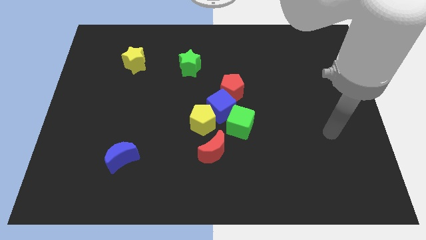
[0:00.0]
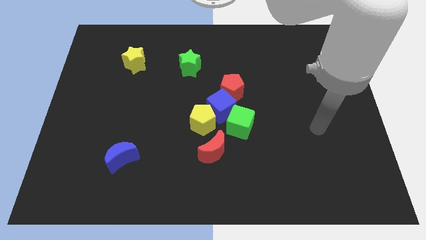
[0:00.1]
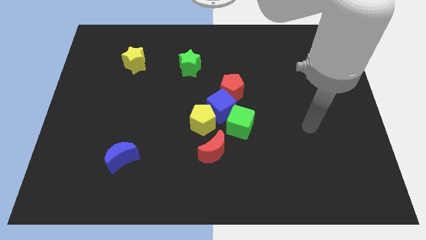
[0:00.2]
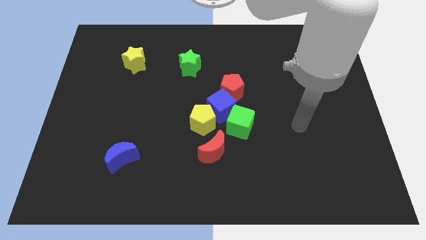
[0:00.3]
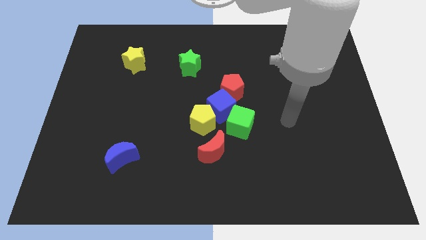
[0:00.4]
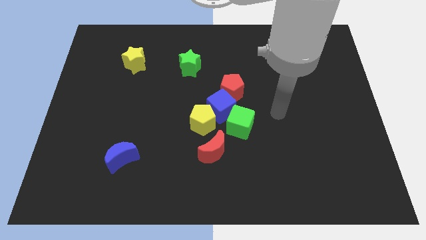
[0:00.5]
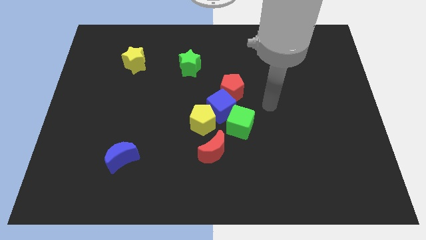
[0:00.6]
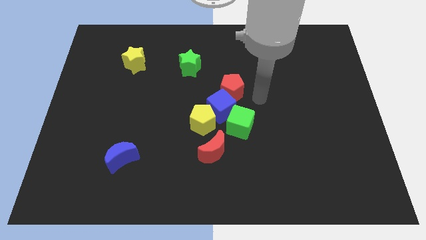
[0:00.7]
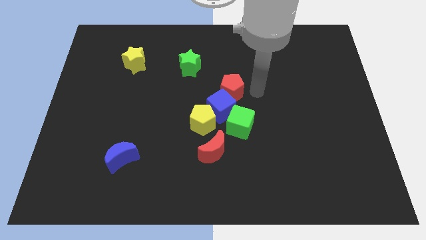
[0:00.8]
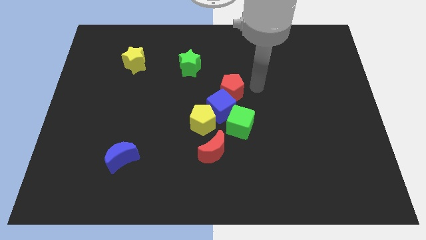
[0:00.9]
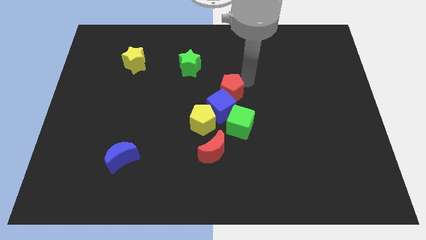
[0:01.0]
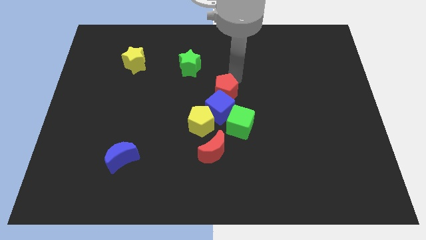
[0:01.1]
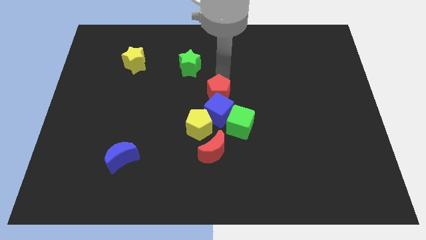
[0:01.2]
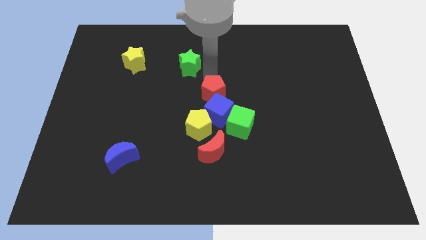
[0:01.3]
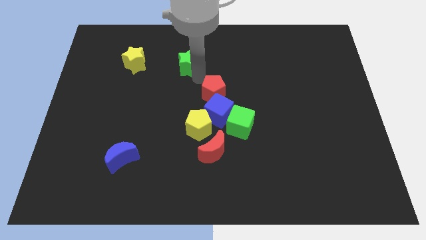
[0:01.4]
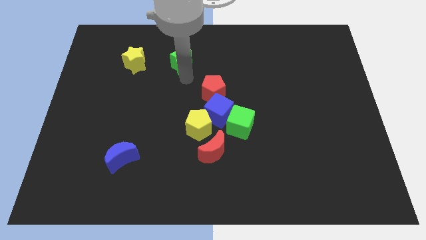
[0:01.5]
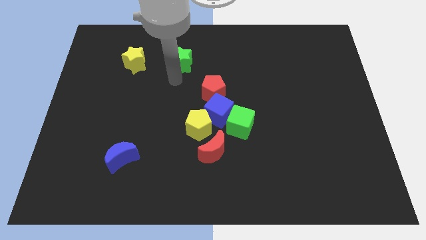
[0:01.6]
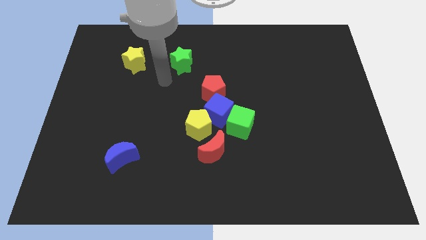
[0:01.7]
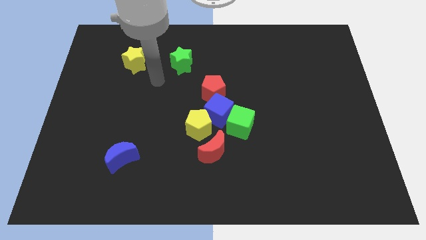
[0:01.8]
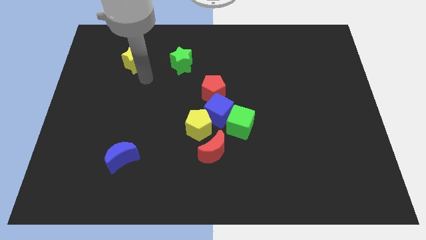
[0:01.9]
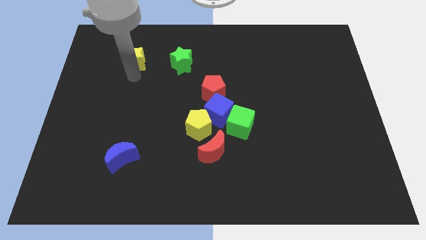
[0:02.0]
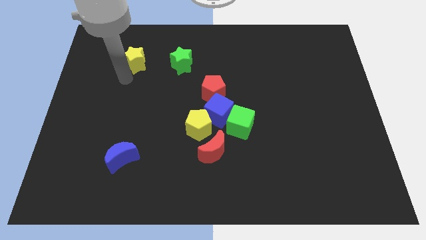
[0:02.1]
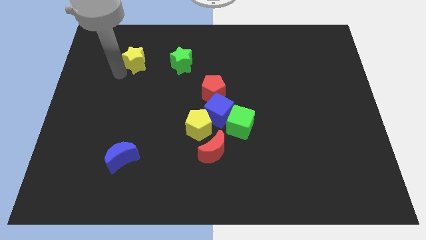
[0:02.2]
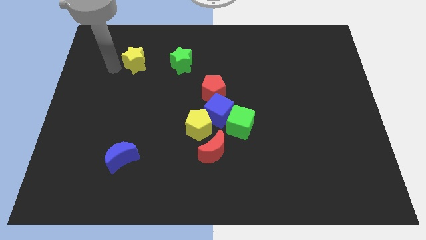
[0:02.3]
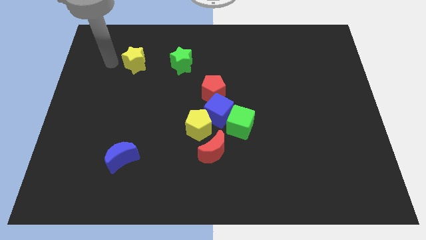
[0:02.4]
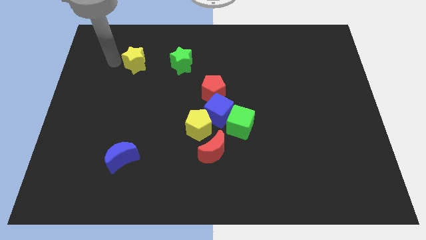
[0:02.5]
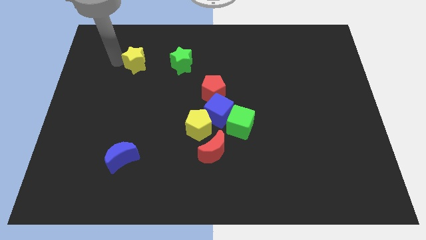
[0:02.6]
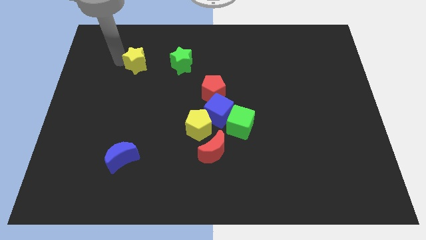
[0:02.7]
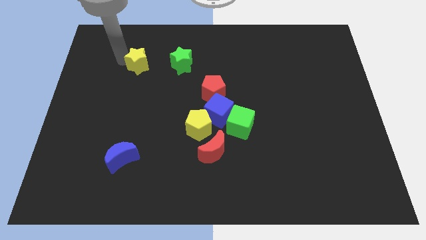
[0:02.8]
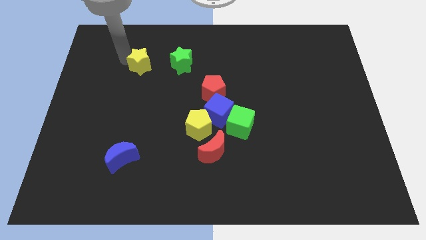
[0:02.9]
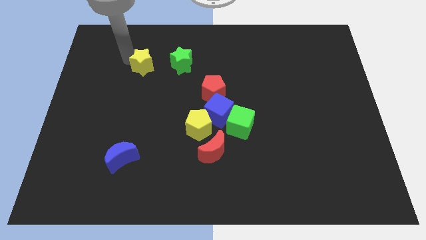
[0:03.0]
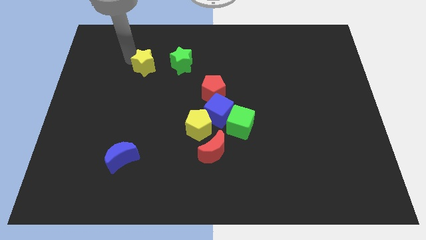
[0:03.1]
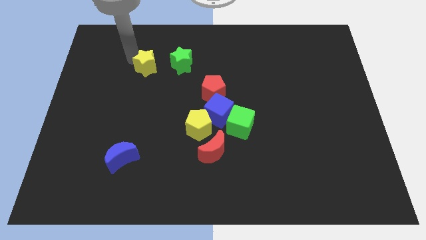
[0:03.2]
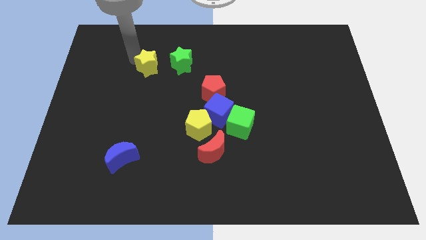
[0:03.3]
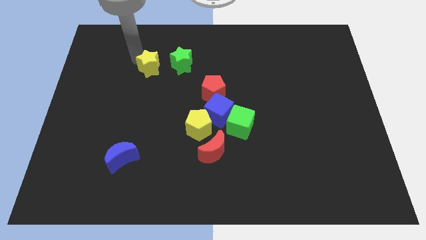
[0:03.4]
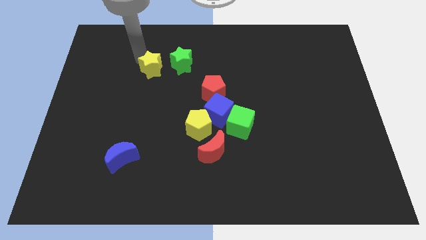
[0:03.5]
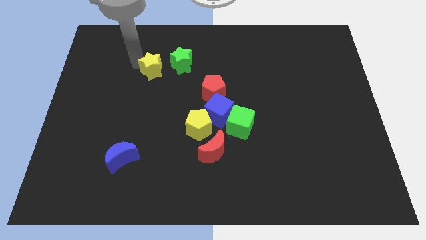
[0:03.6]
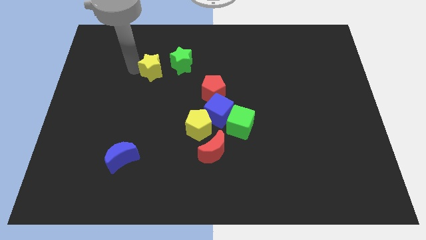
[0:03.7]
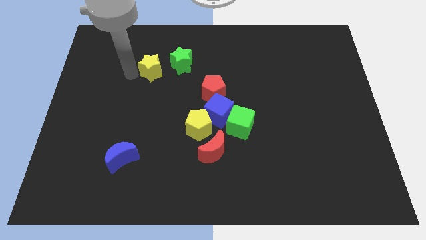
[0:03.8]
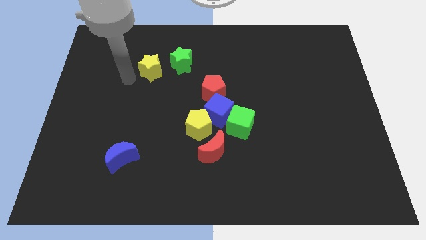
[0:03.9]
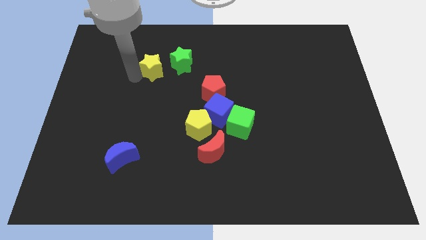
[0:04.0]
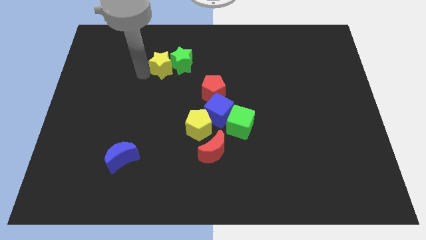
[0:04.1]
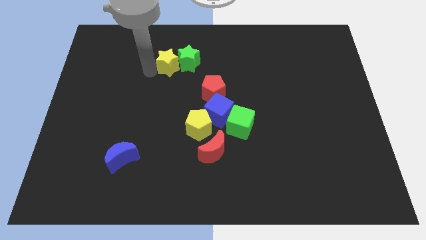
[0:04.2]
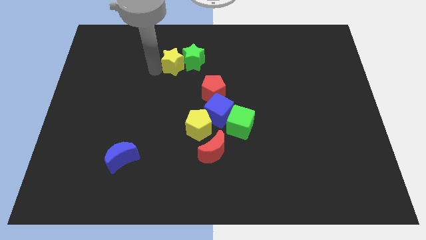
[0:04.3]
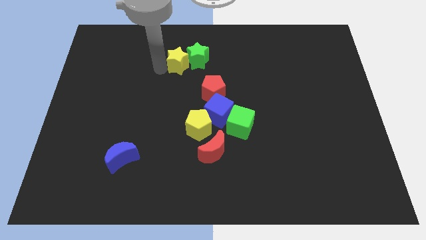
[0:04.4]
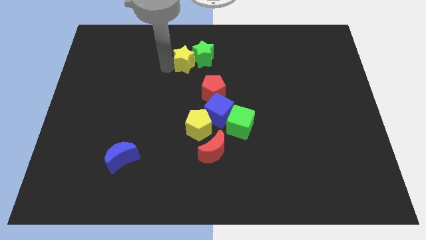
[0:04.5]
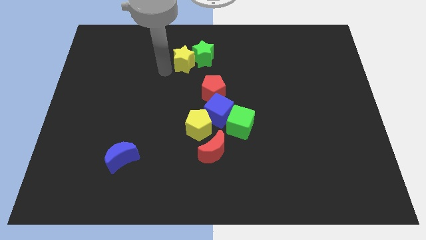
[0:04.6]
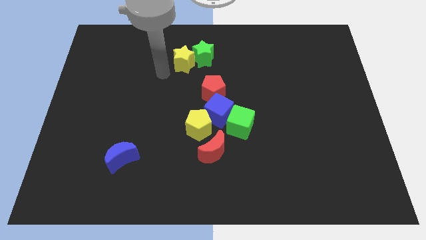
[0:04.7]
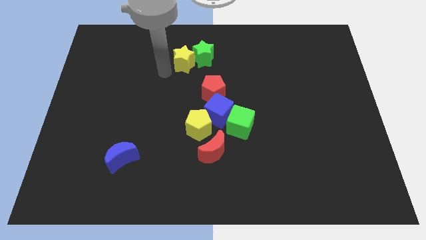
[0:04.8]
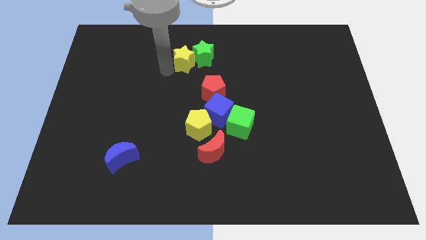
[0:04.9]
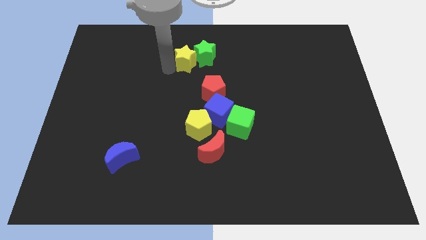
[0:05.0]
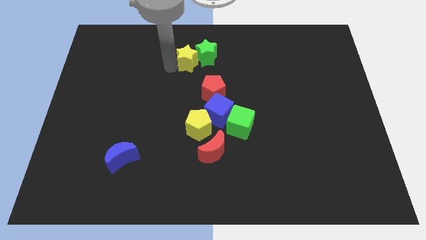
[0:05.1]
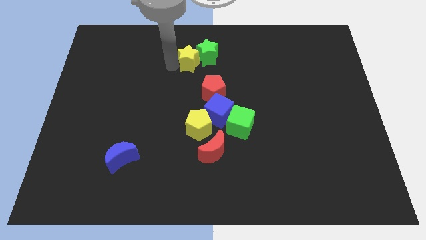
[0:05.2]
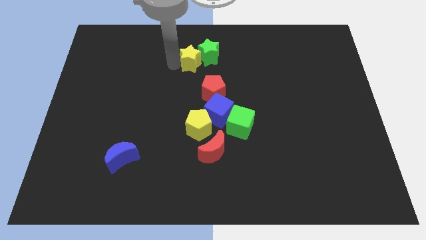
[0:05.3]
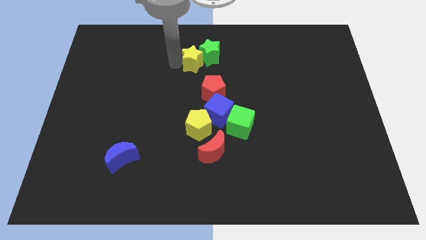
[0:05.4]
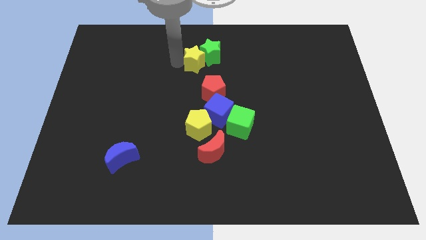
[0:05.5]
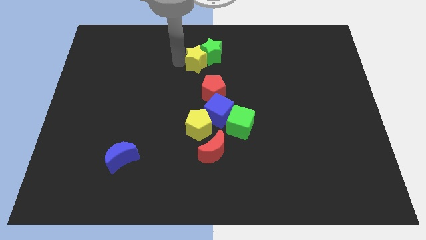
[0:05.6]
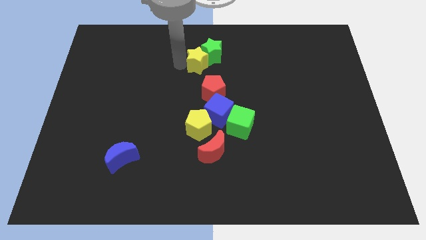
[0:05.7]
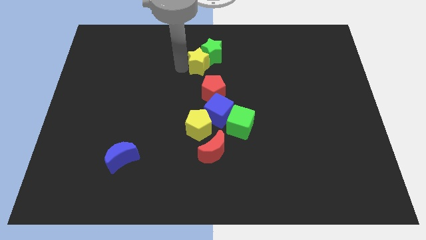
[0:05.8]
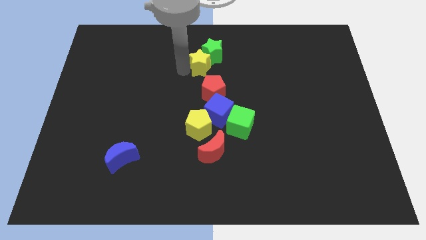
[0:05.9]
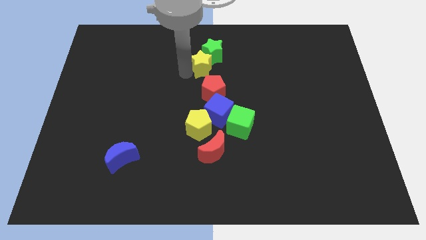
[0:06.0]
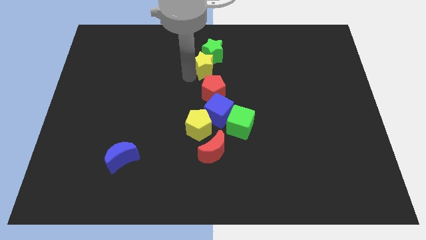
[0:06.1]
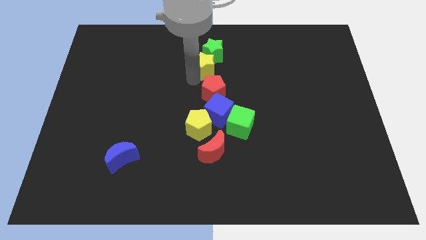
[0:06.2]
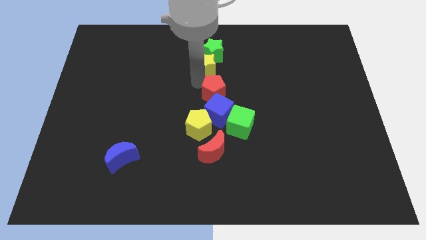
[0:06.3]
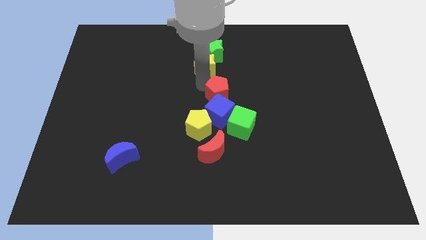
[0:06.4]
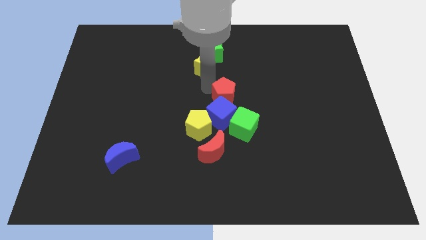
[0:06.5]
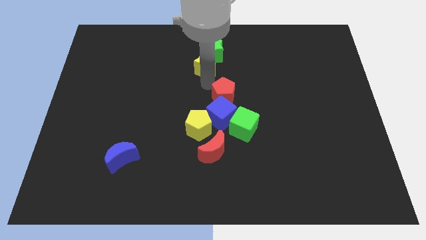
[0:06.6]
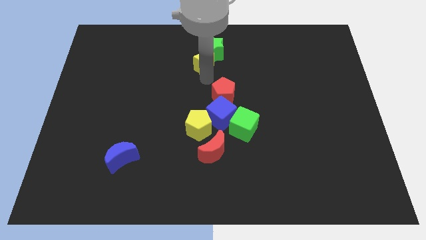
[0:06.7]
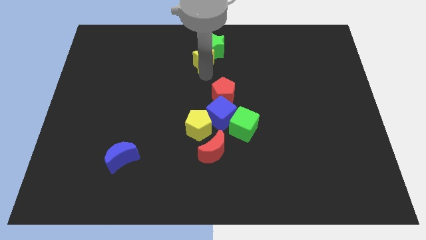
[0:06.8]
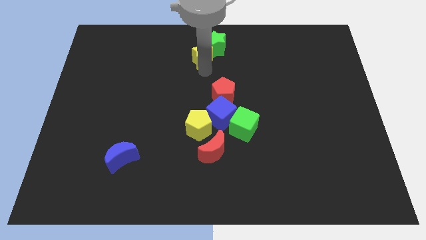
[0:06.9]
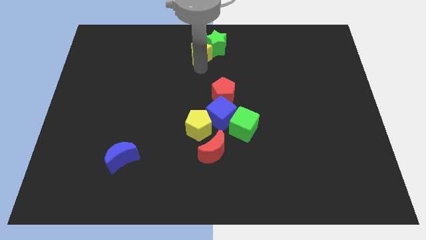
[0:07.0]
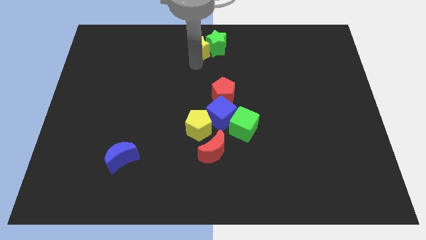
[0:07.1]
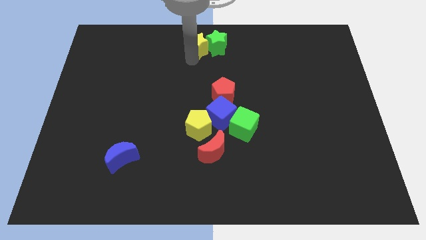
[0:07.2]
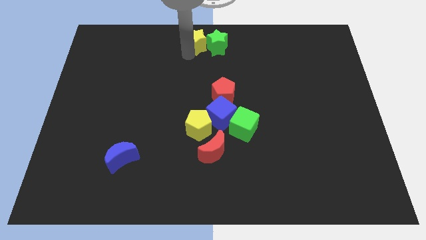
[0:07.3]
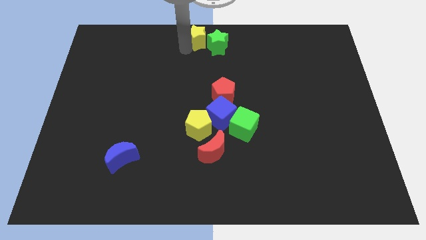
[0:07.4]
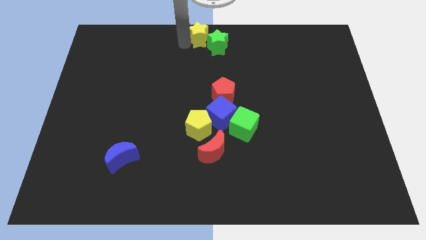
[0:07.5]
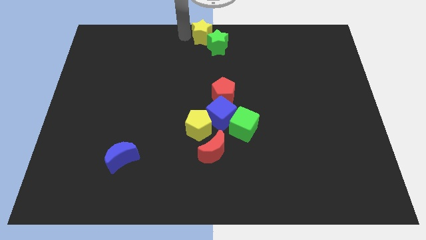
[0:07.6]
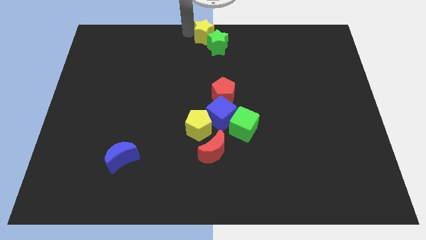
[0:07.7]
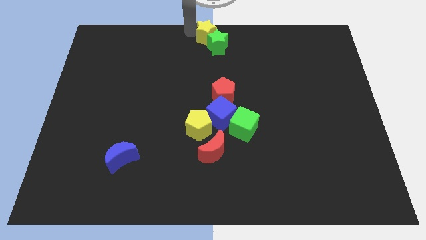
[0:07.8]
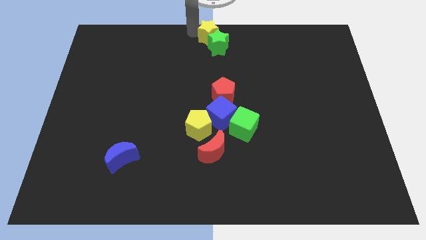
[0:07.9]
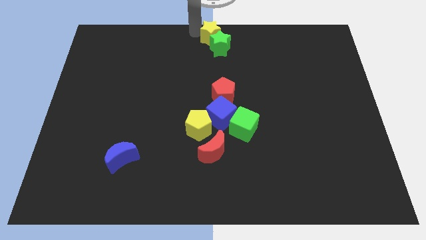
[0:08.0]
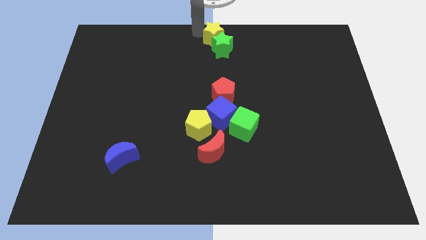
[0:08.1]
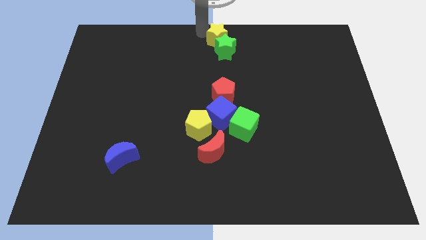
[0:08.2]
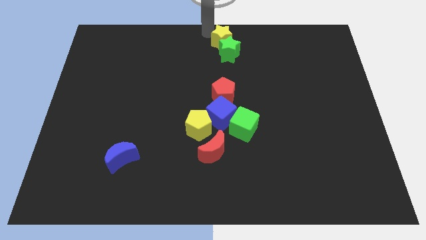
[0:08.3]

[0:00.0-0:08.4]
slide the yellow star to the right
